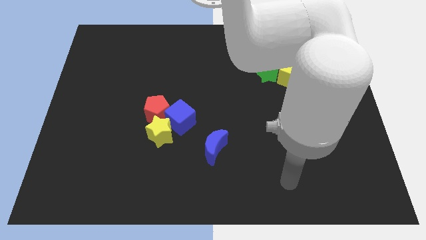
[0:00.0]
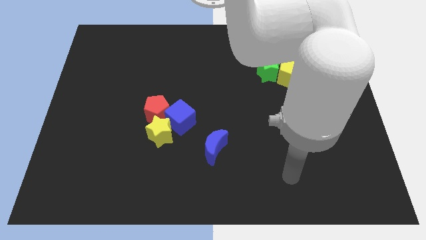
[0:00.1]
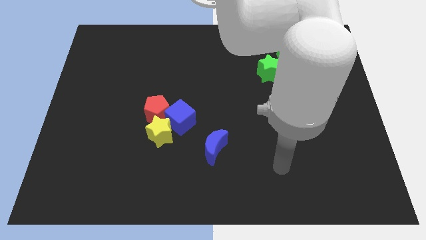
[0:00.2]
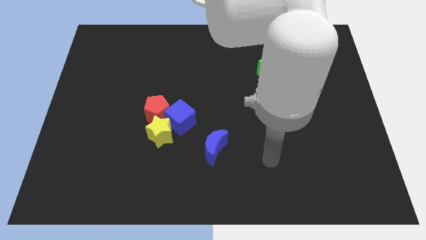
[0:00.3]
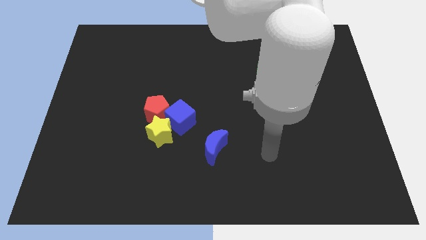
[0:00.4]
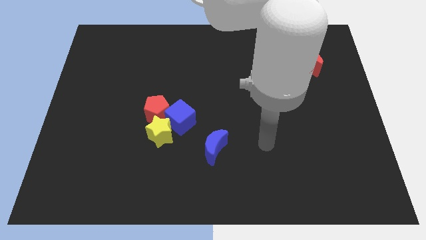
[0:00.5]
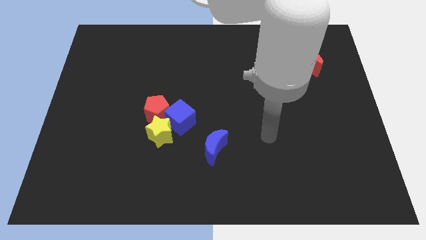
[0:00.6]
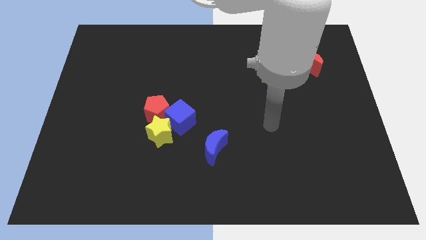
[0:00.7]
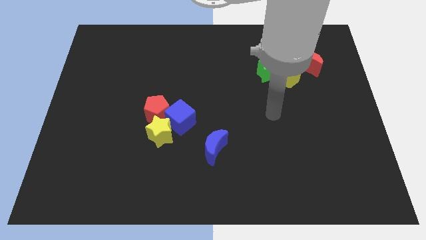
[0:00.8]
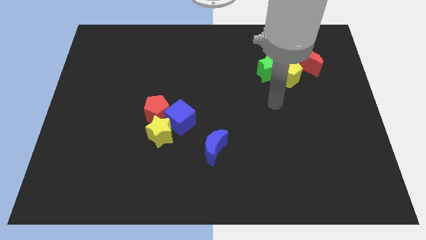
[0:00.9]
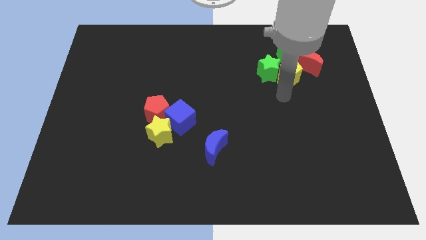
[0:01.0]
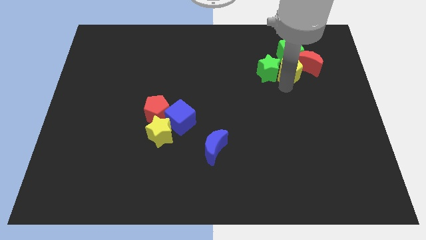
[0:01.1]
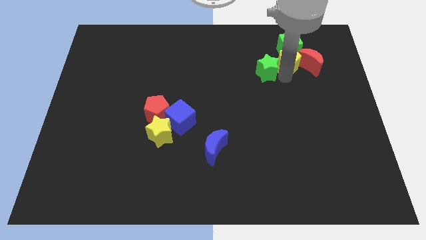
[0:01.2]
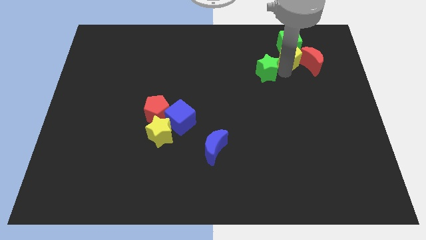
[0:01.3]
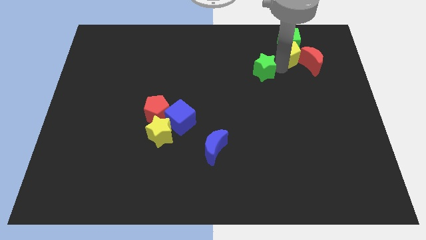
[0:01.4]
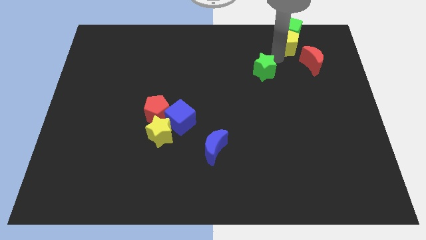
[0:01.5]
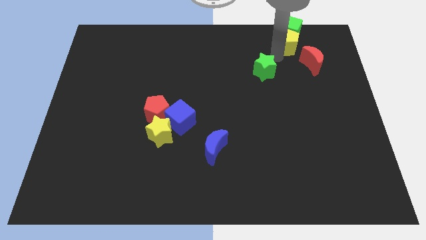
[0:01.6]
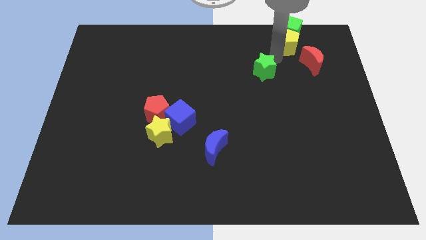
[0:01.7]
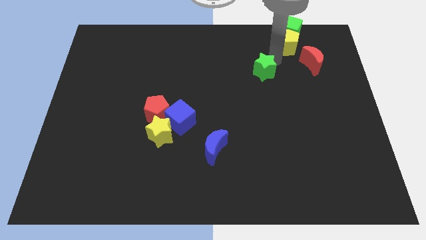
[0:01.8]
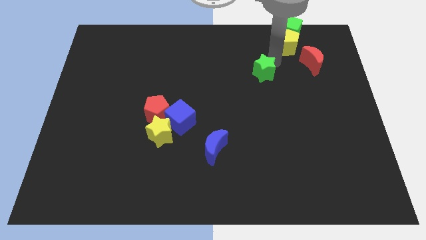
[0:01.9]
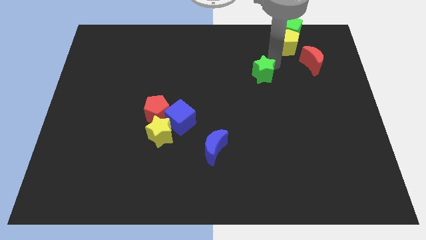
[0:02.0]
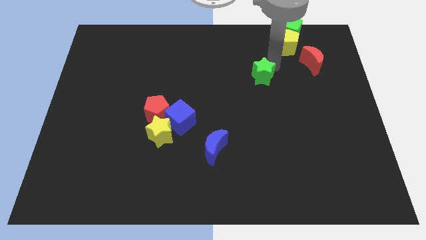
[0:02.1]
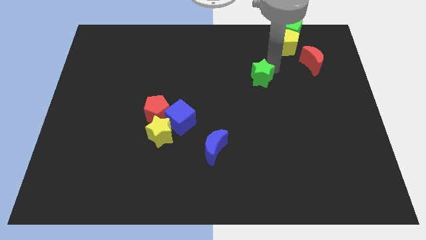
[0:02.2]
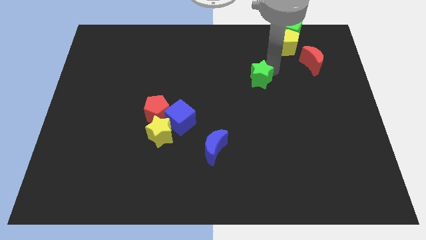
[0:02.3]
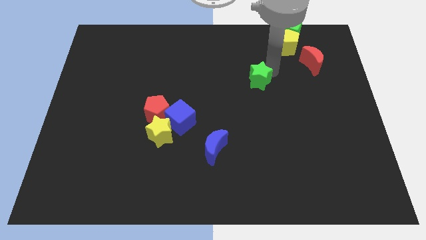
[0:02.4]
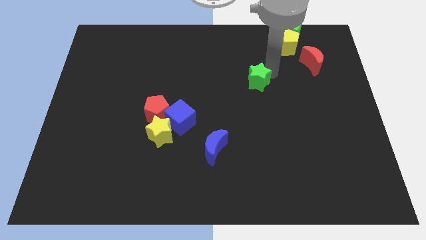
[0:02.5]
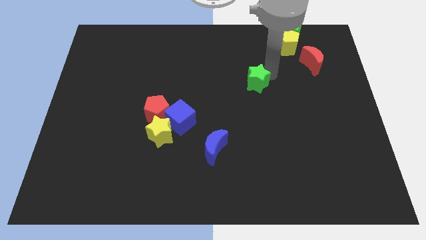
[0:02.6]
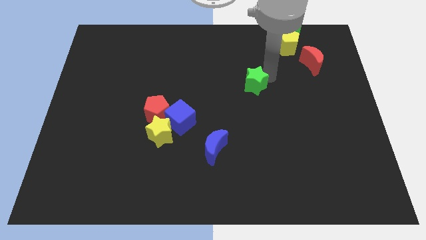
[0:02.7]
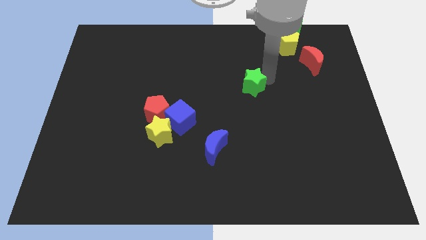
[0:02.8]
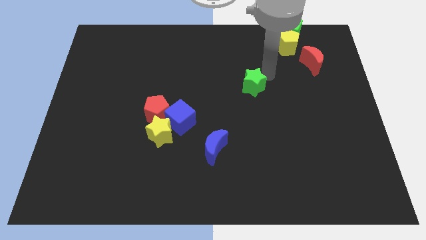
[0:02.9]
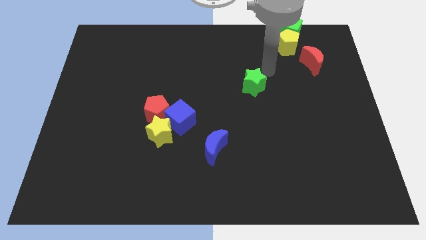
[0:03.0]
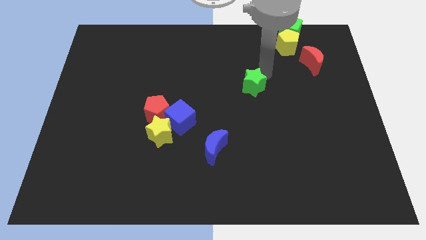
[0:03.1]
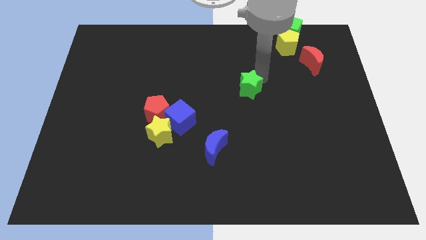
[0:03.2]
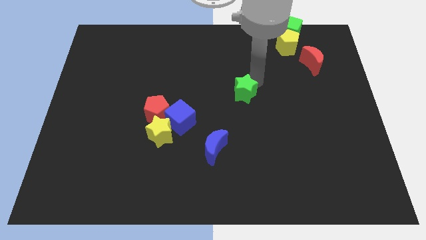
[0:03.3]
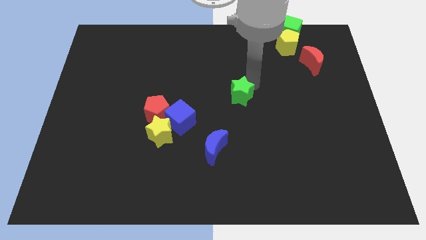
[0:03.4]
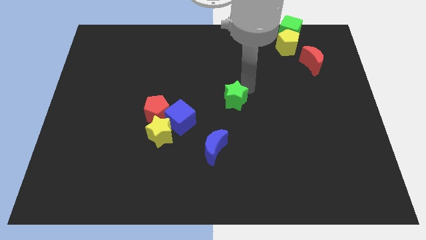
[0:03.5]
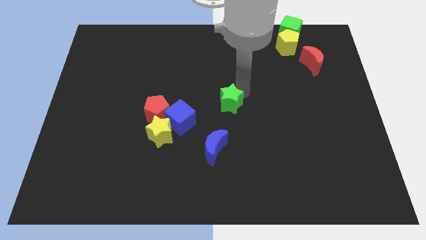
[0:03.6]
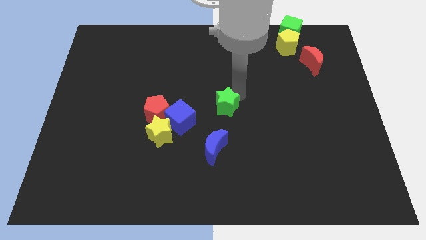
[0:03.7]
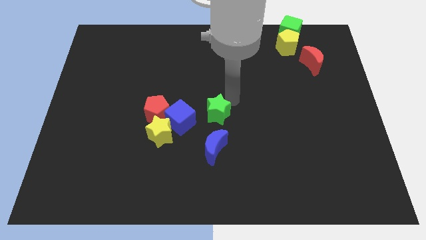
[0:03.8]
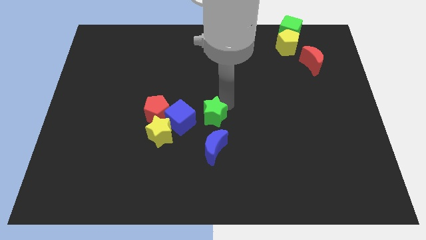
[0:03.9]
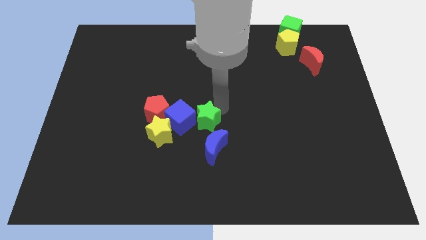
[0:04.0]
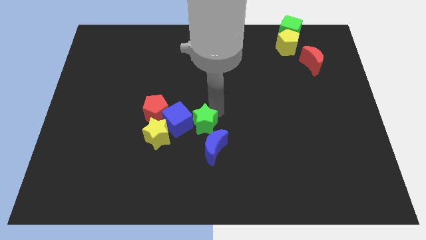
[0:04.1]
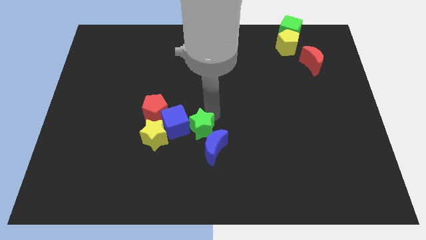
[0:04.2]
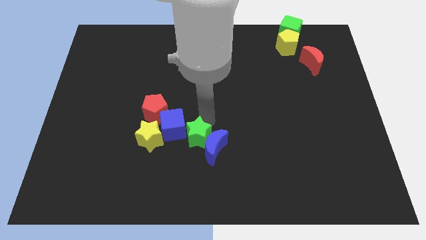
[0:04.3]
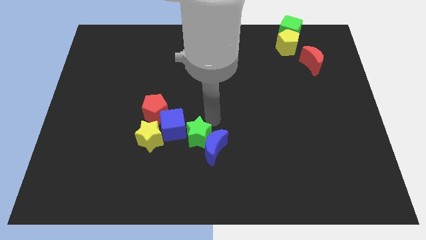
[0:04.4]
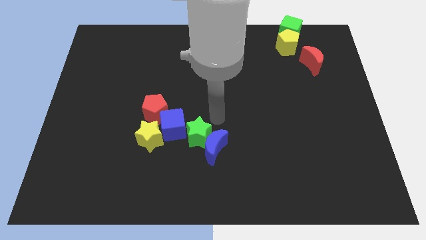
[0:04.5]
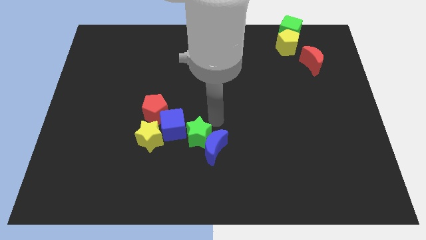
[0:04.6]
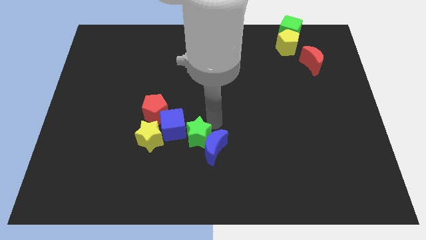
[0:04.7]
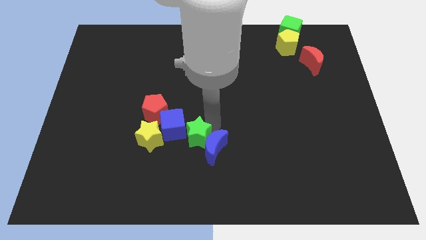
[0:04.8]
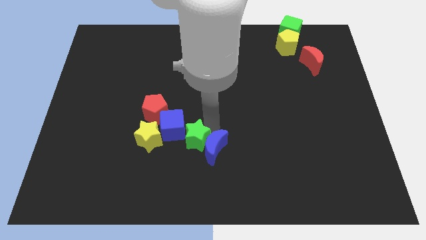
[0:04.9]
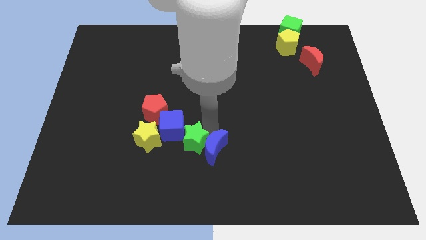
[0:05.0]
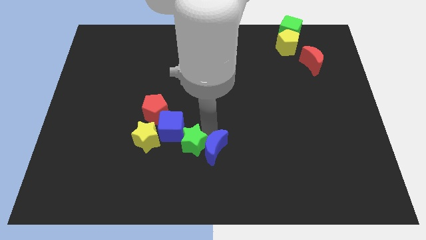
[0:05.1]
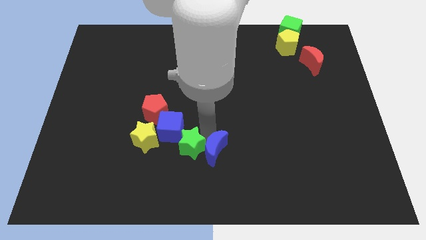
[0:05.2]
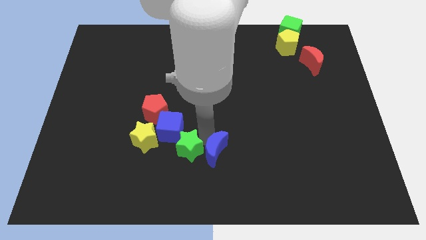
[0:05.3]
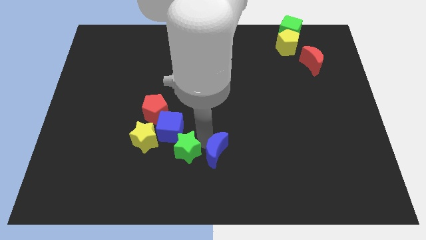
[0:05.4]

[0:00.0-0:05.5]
push the green star to the bottom right of the yellow star

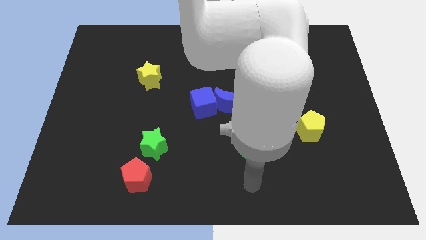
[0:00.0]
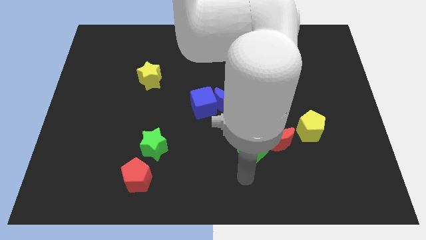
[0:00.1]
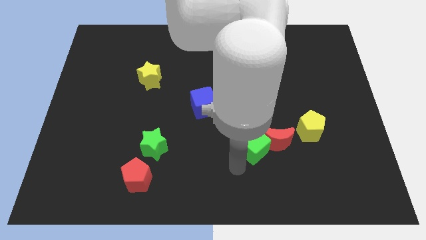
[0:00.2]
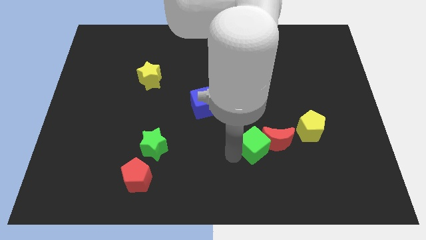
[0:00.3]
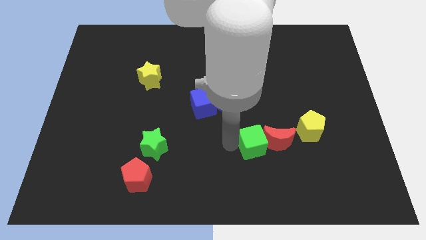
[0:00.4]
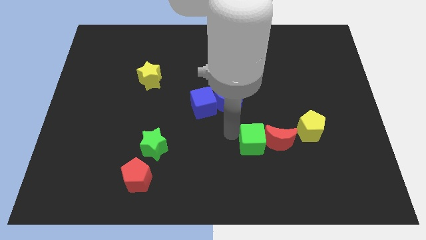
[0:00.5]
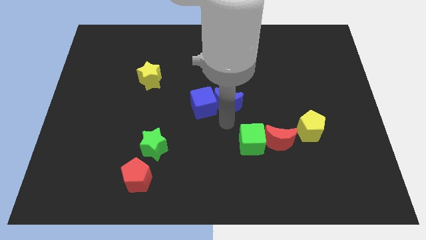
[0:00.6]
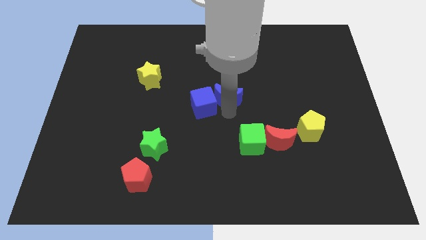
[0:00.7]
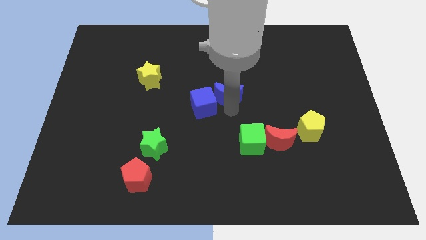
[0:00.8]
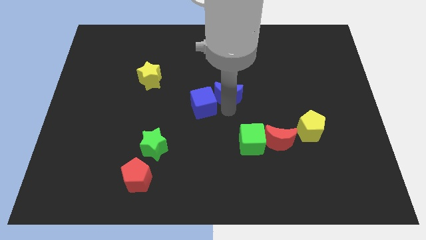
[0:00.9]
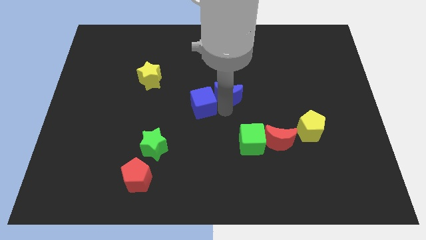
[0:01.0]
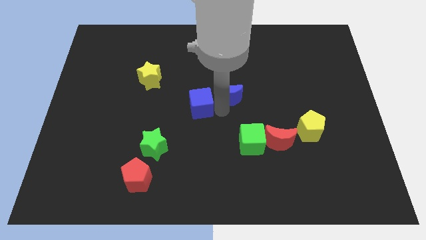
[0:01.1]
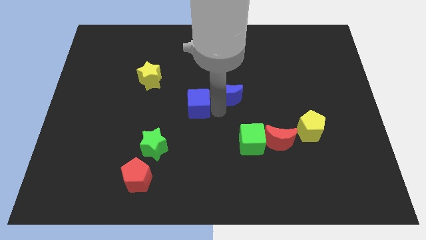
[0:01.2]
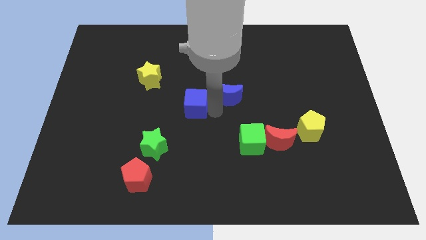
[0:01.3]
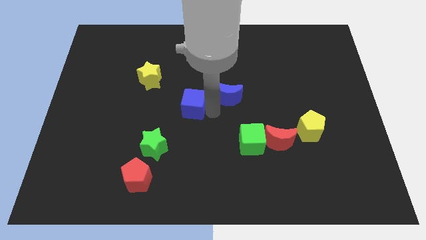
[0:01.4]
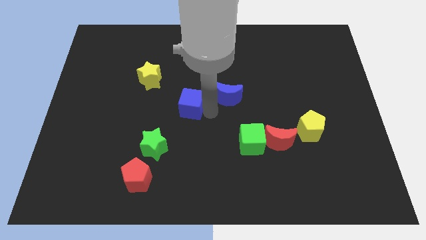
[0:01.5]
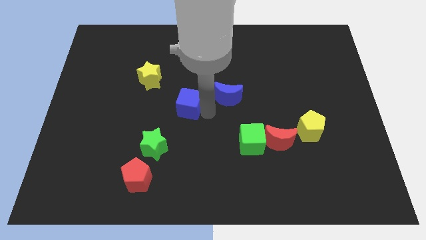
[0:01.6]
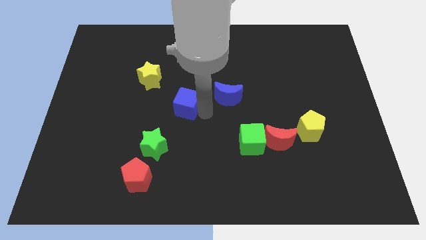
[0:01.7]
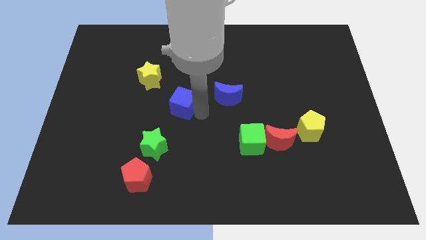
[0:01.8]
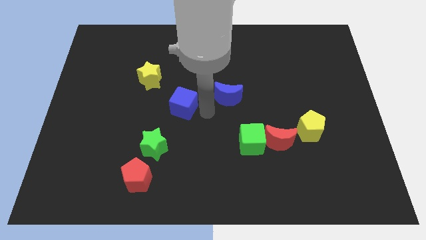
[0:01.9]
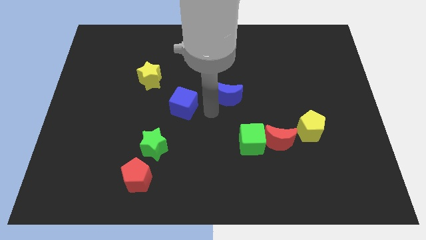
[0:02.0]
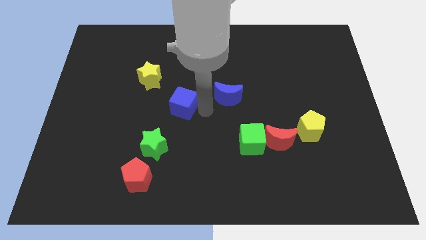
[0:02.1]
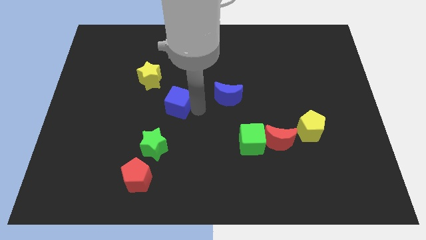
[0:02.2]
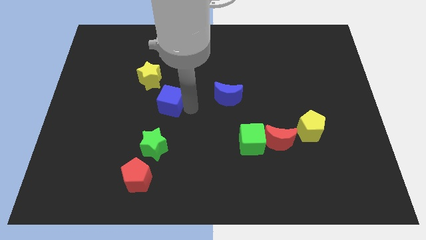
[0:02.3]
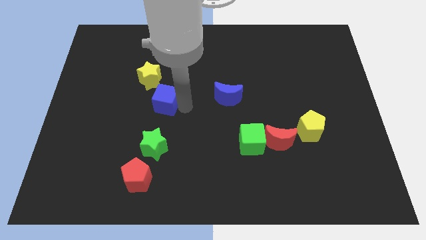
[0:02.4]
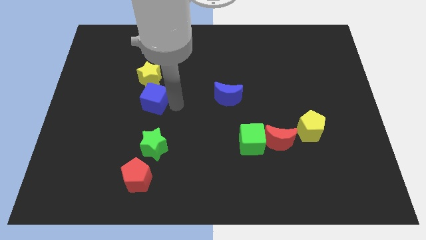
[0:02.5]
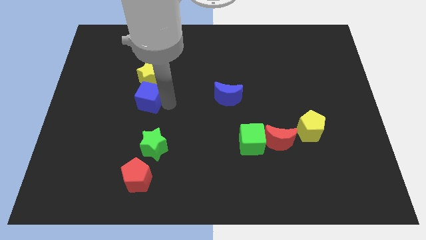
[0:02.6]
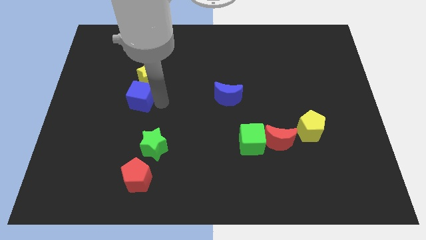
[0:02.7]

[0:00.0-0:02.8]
put the blue cube to the bottom left of the yellow star
